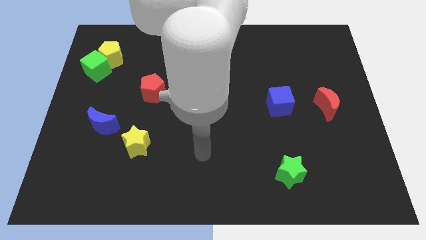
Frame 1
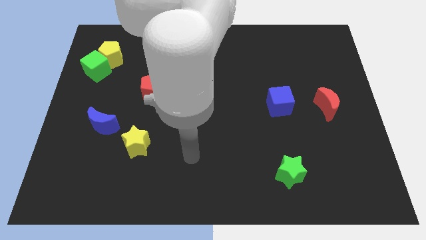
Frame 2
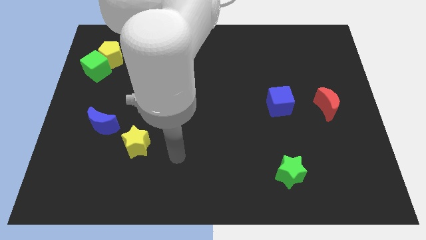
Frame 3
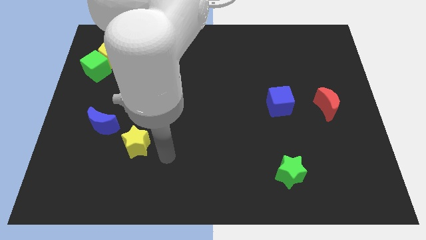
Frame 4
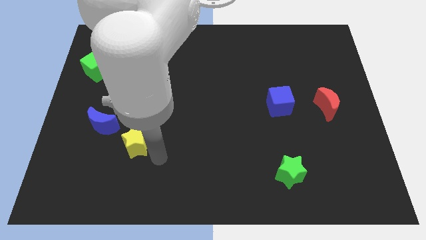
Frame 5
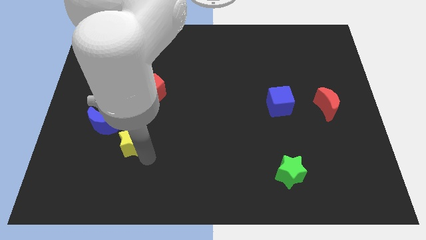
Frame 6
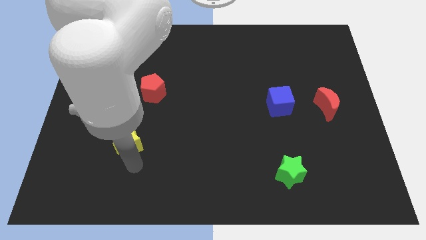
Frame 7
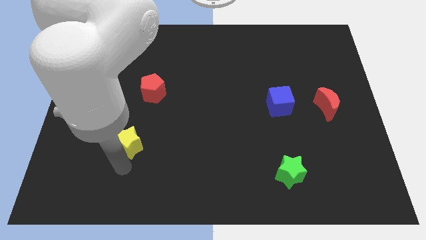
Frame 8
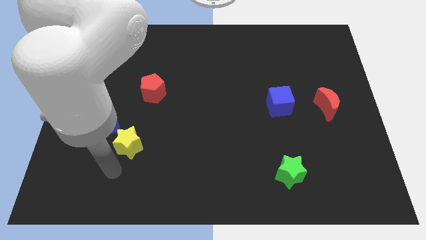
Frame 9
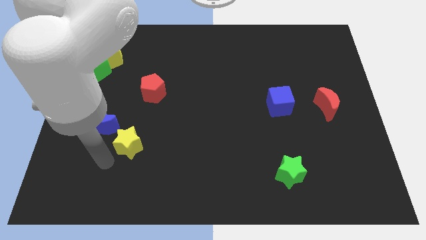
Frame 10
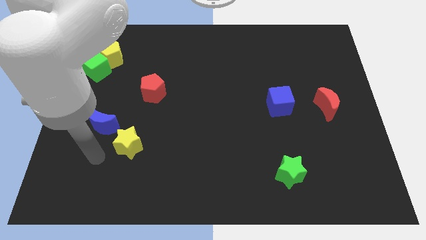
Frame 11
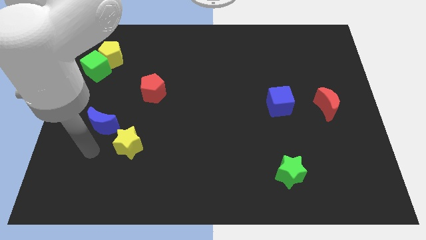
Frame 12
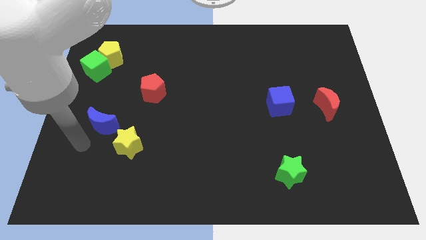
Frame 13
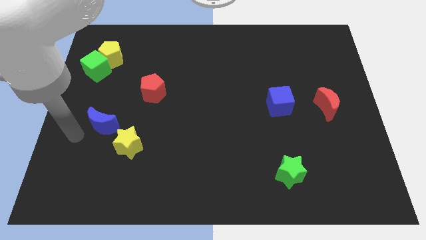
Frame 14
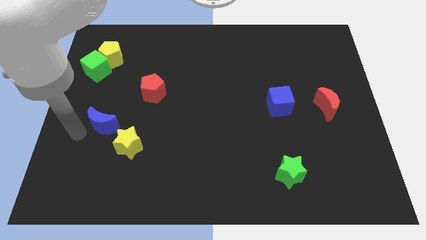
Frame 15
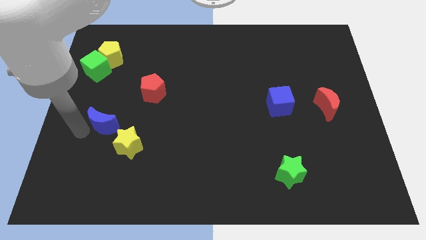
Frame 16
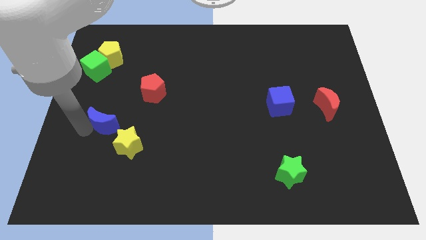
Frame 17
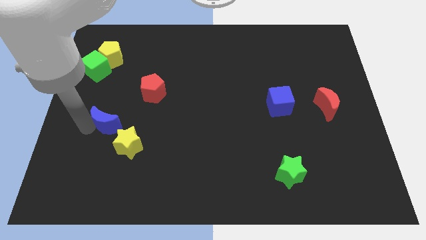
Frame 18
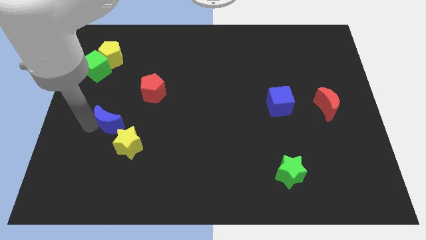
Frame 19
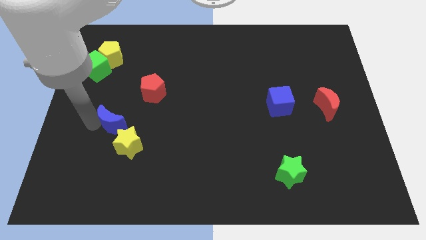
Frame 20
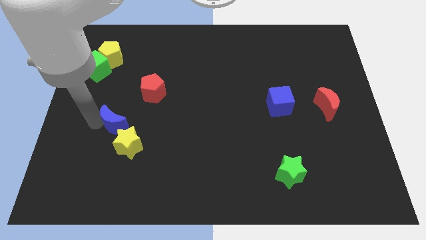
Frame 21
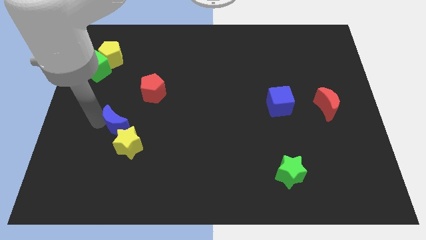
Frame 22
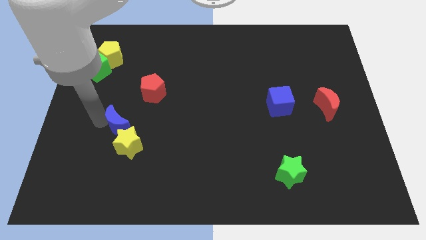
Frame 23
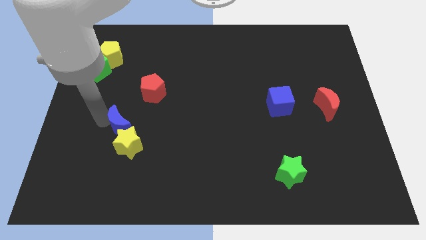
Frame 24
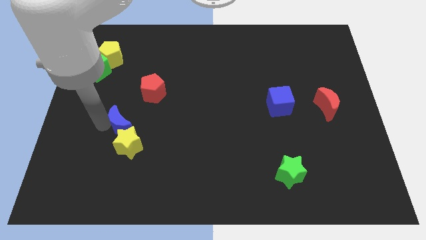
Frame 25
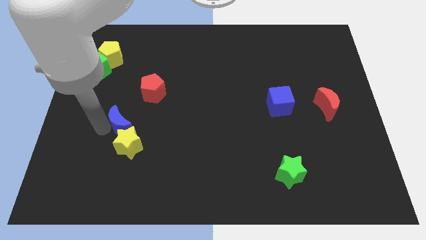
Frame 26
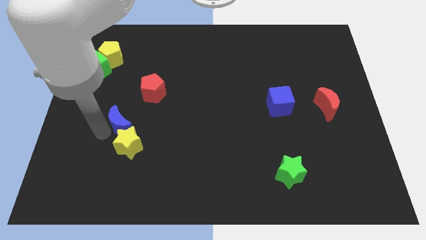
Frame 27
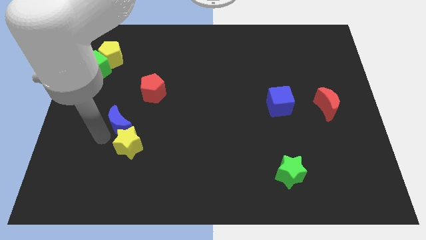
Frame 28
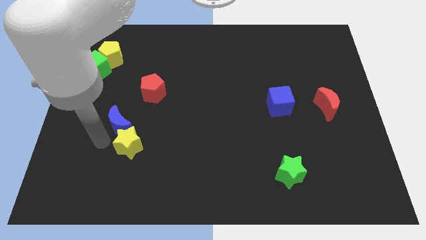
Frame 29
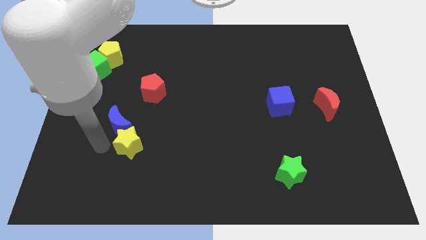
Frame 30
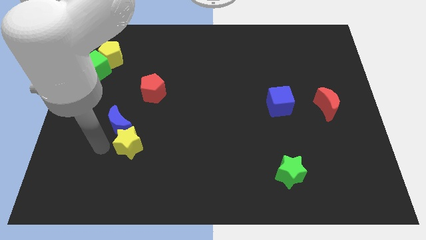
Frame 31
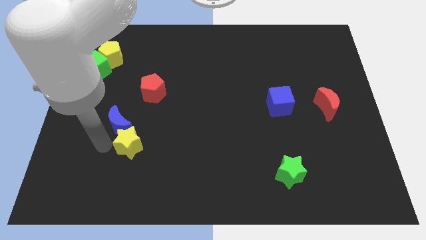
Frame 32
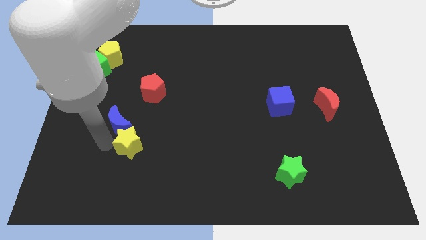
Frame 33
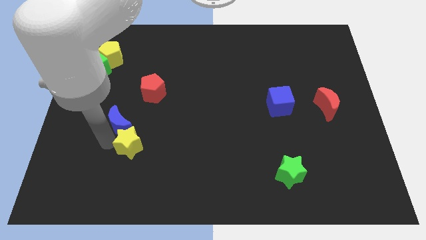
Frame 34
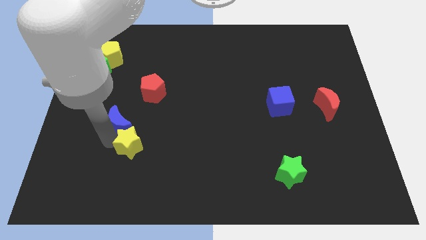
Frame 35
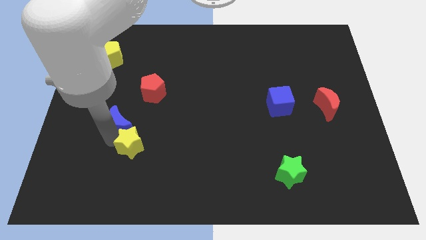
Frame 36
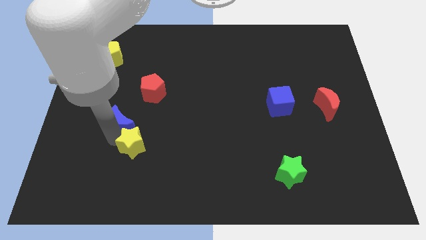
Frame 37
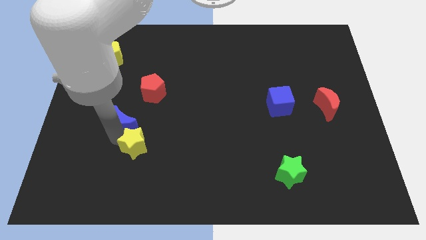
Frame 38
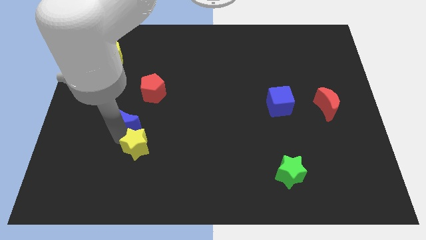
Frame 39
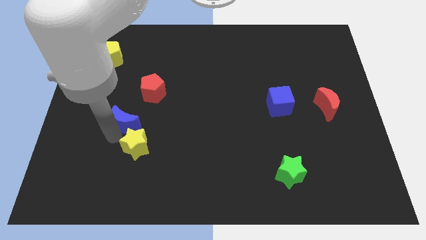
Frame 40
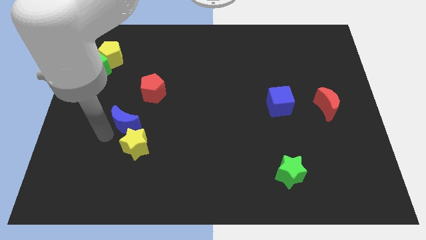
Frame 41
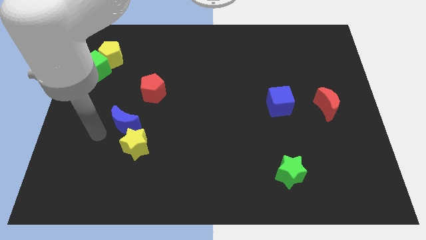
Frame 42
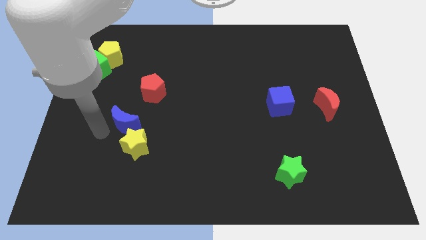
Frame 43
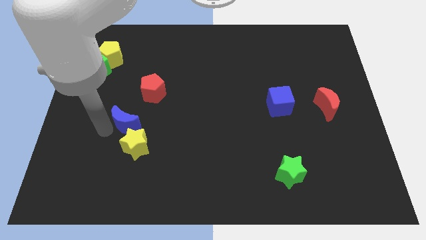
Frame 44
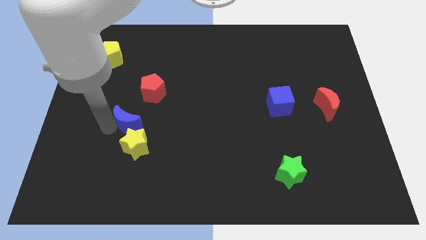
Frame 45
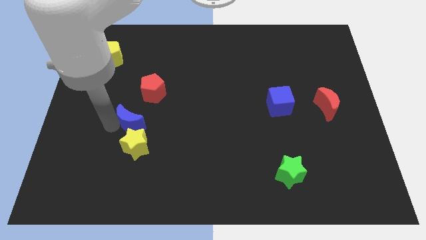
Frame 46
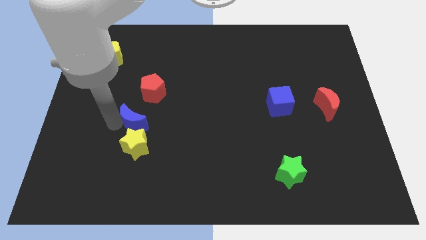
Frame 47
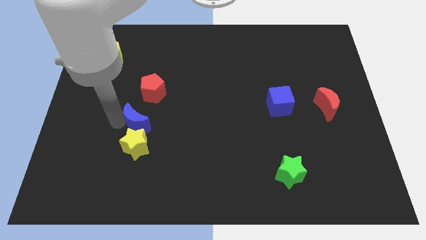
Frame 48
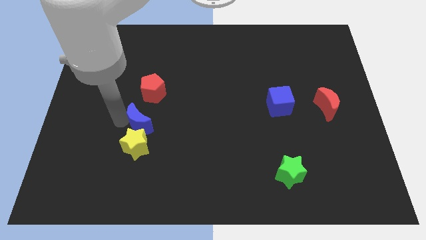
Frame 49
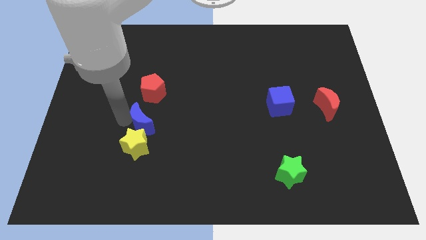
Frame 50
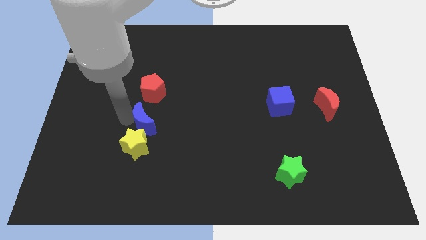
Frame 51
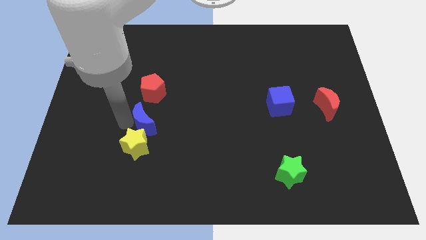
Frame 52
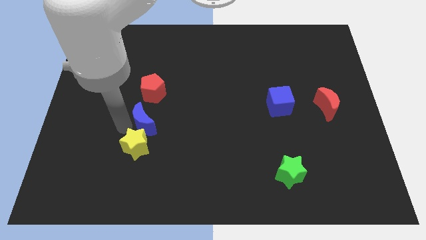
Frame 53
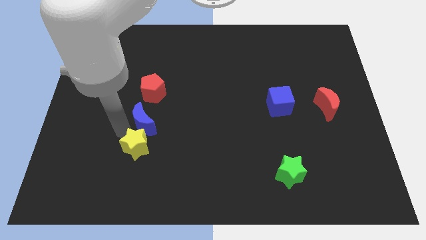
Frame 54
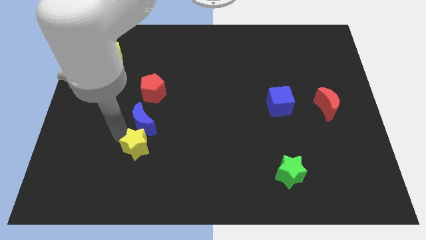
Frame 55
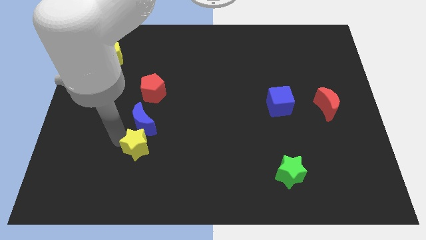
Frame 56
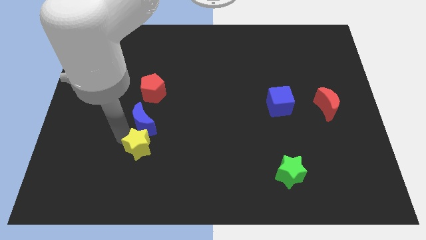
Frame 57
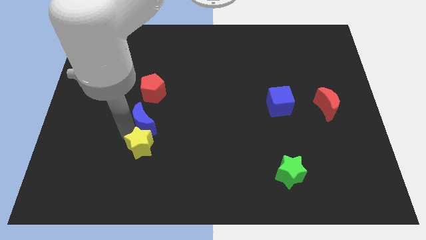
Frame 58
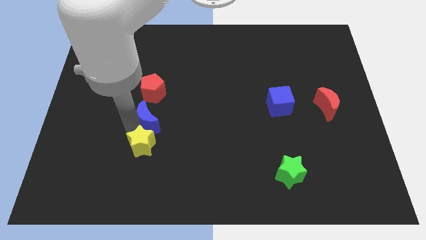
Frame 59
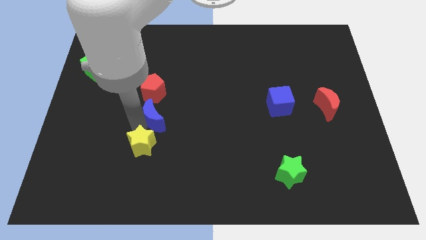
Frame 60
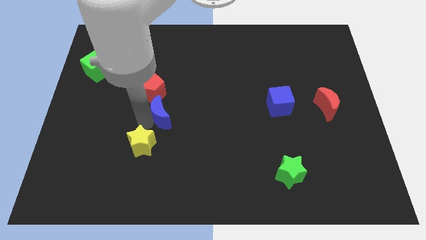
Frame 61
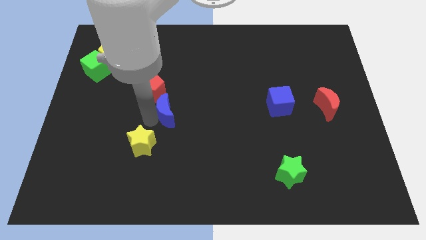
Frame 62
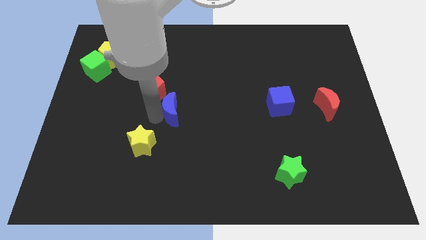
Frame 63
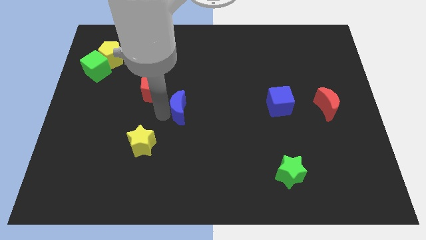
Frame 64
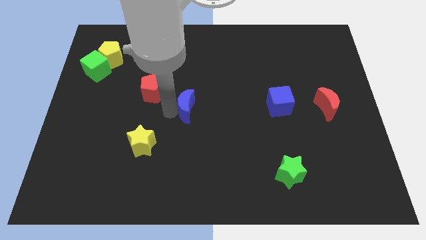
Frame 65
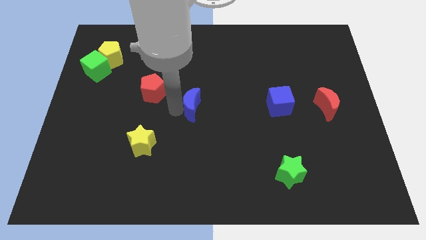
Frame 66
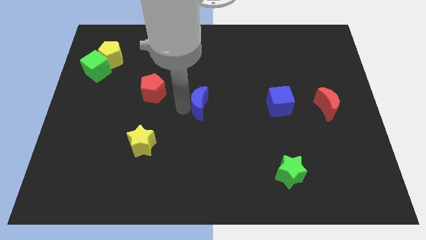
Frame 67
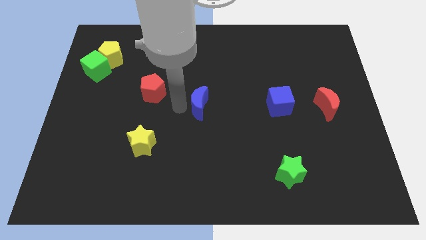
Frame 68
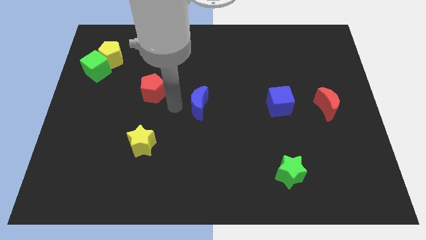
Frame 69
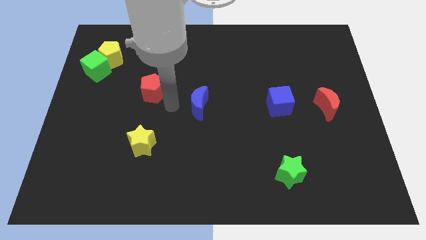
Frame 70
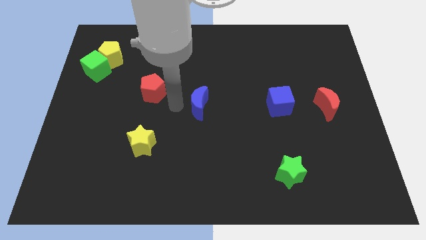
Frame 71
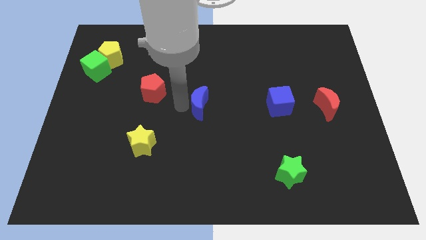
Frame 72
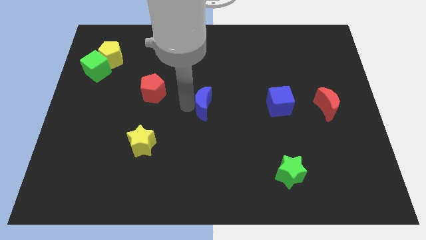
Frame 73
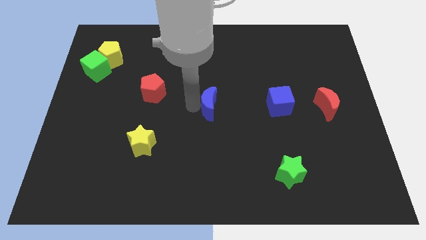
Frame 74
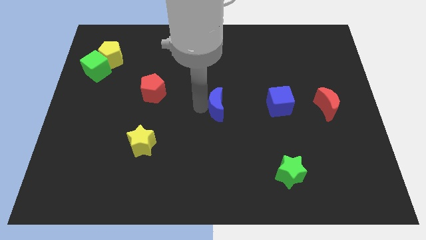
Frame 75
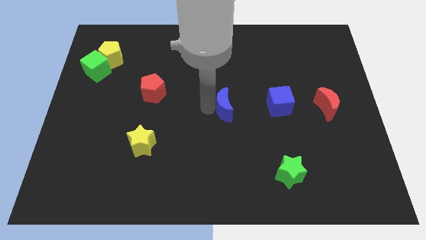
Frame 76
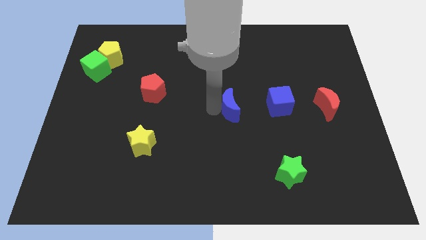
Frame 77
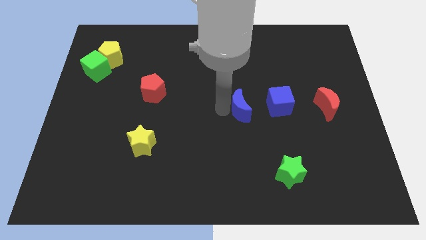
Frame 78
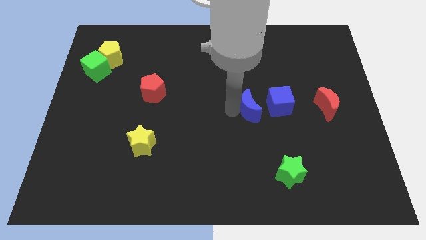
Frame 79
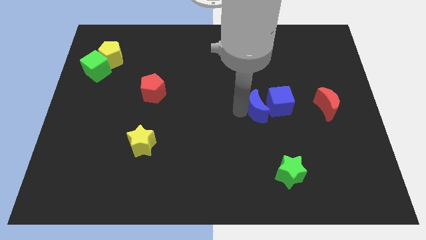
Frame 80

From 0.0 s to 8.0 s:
move the blue moon to the blue cube
